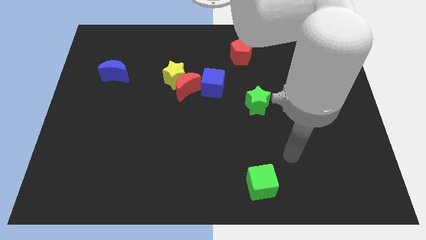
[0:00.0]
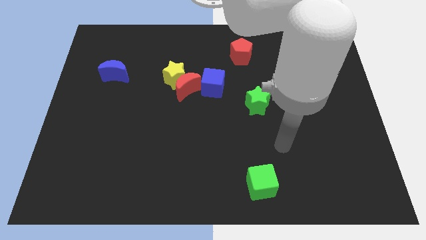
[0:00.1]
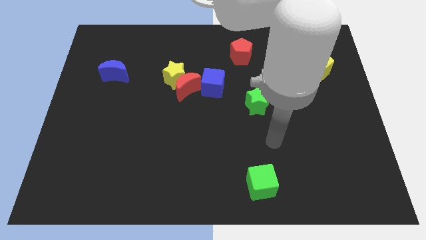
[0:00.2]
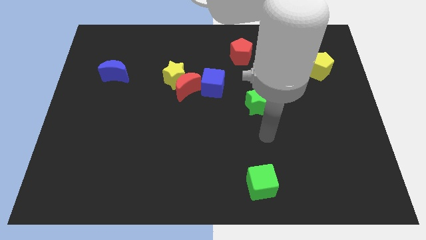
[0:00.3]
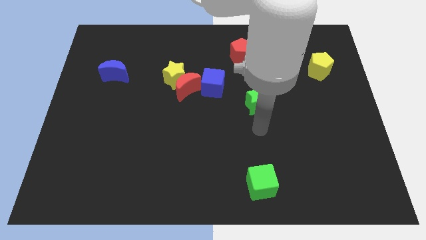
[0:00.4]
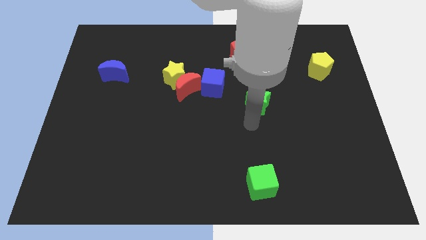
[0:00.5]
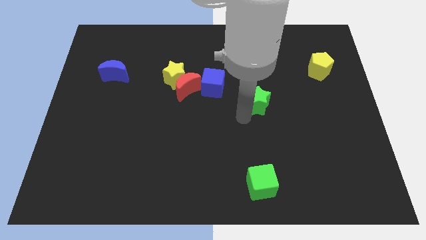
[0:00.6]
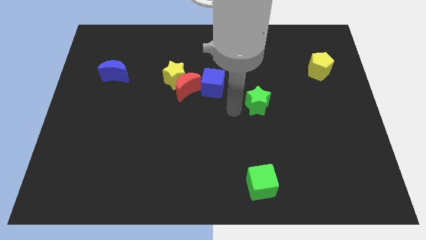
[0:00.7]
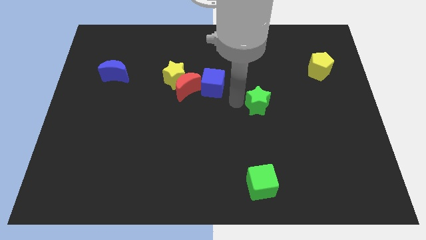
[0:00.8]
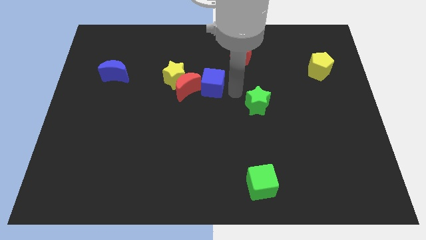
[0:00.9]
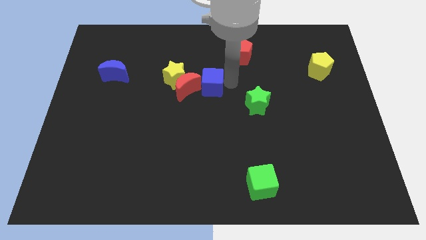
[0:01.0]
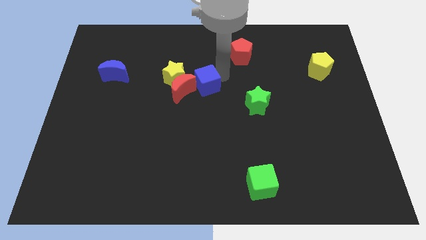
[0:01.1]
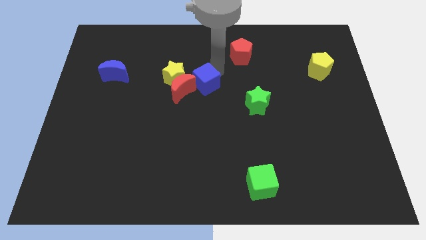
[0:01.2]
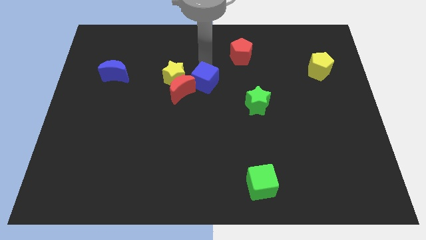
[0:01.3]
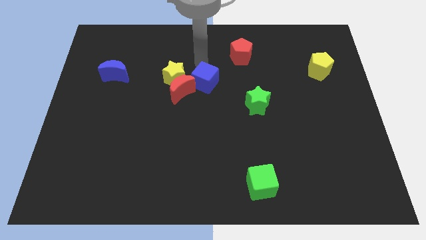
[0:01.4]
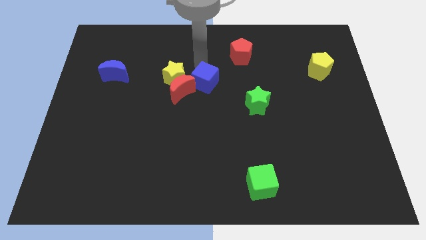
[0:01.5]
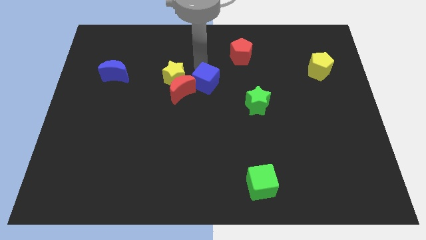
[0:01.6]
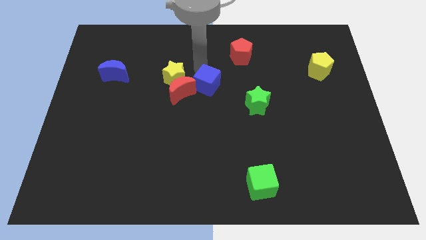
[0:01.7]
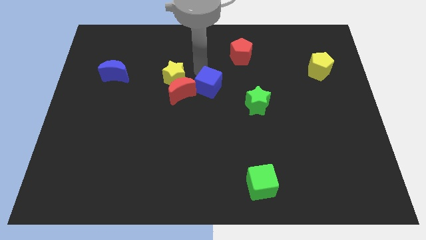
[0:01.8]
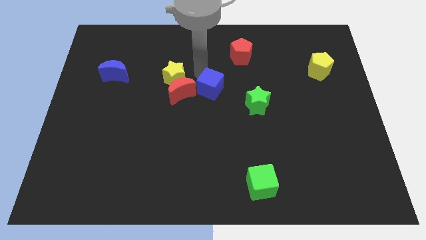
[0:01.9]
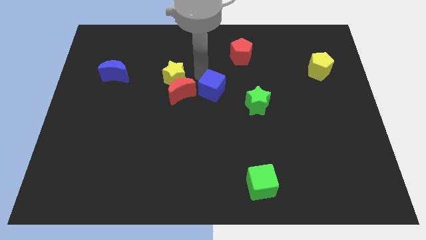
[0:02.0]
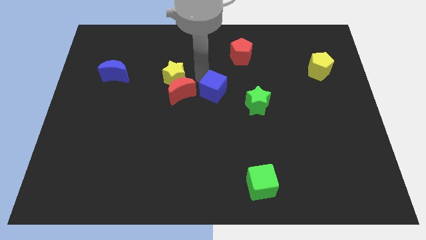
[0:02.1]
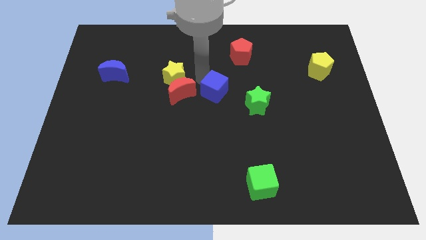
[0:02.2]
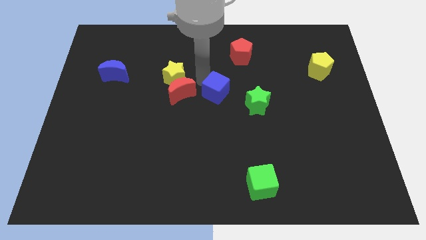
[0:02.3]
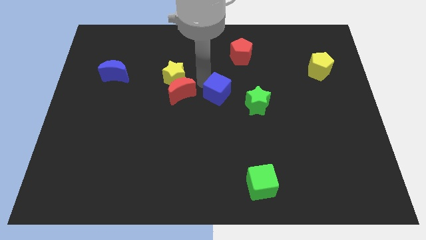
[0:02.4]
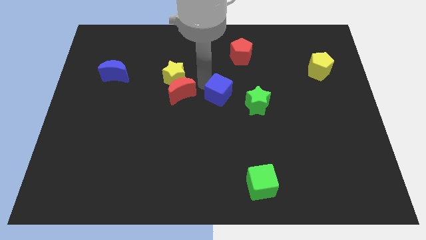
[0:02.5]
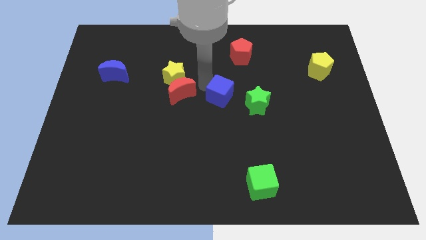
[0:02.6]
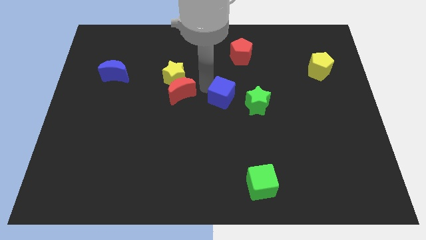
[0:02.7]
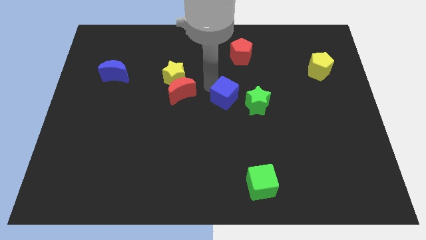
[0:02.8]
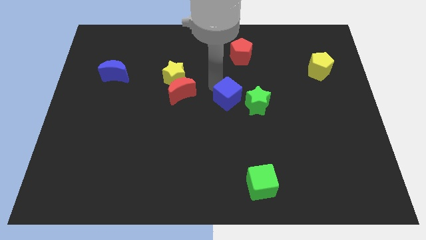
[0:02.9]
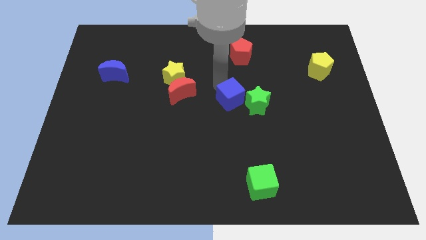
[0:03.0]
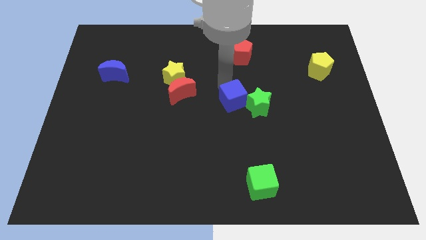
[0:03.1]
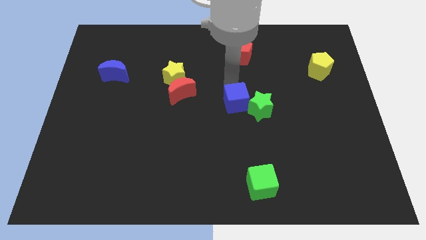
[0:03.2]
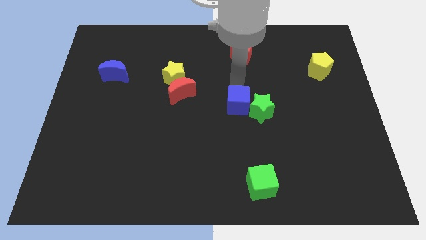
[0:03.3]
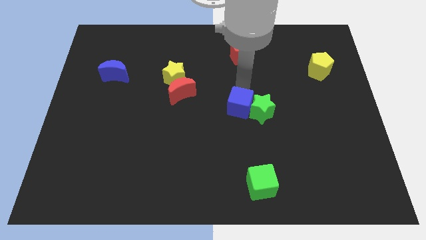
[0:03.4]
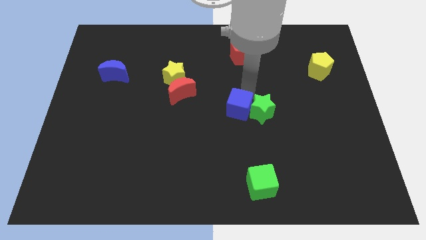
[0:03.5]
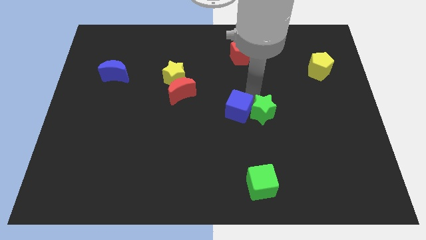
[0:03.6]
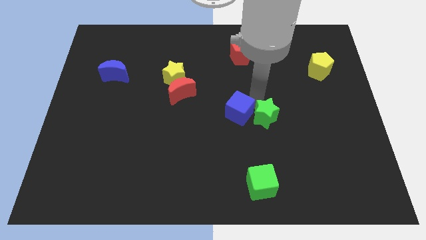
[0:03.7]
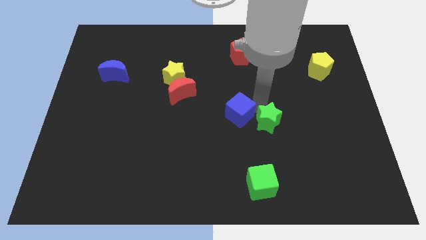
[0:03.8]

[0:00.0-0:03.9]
slightly move the blue cube downwards

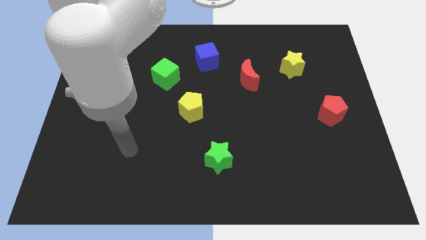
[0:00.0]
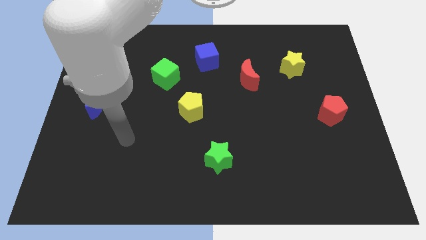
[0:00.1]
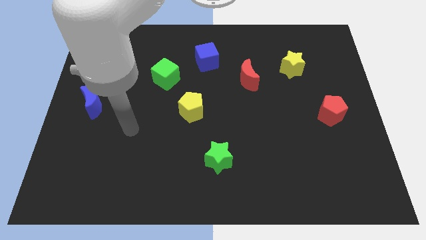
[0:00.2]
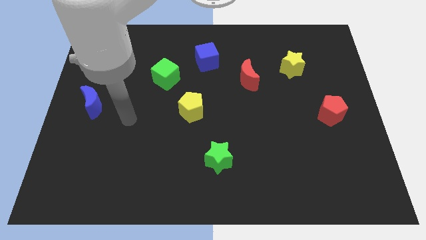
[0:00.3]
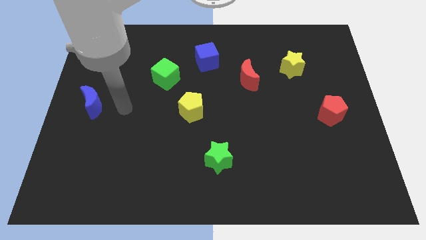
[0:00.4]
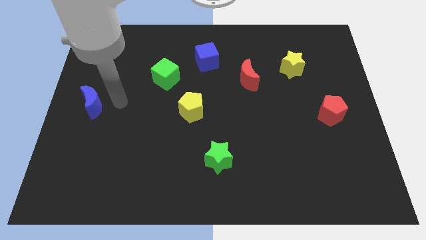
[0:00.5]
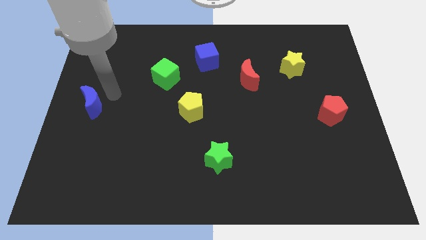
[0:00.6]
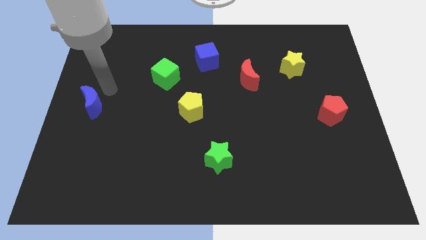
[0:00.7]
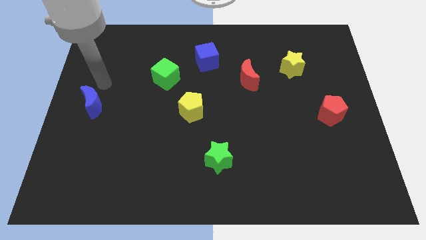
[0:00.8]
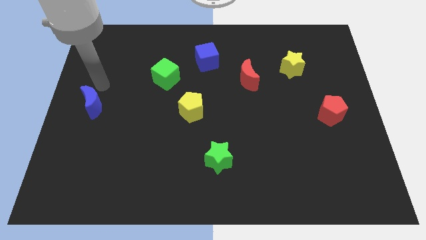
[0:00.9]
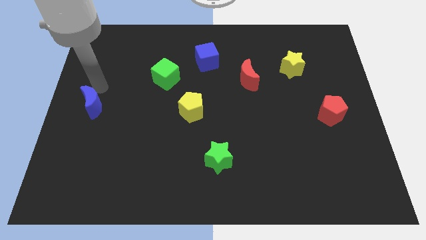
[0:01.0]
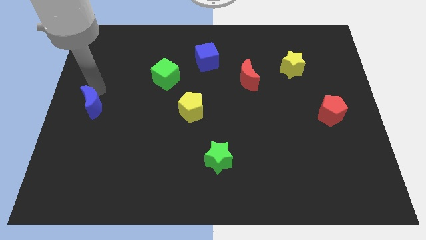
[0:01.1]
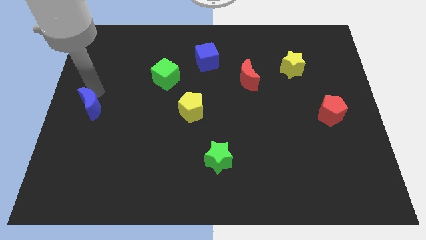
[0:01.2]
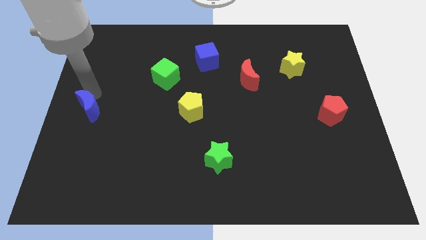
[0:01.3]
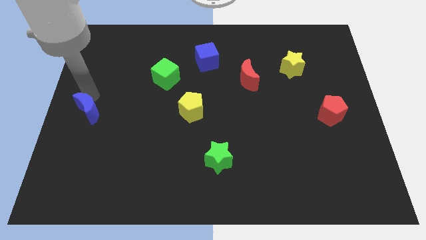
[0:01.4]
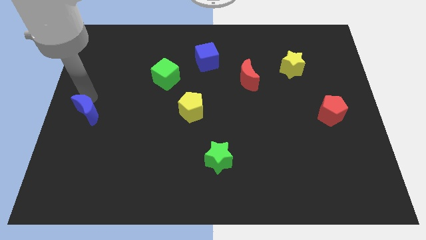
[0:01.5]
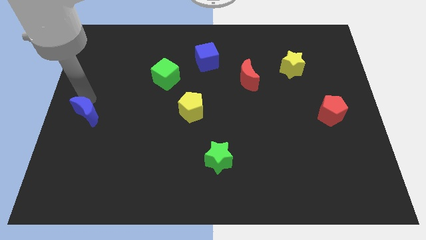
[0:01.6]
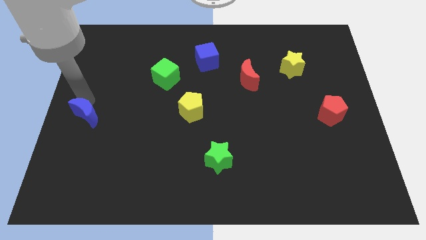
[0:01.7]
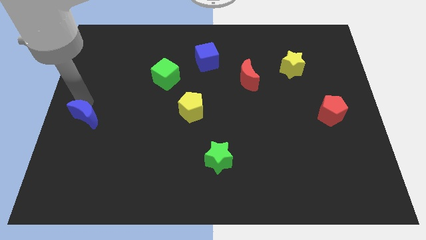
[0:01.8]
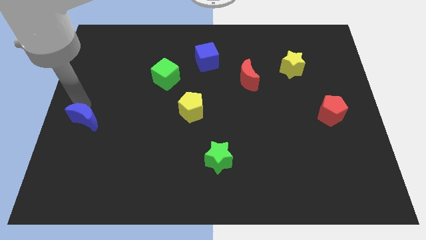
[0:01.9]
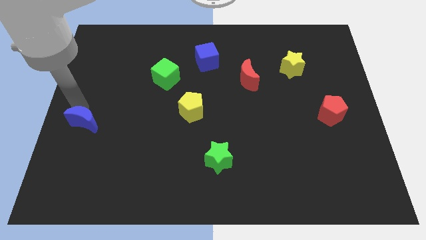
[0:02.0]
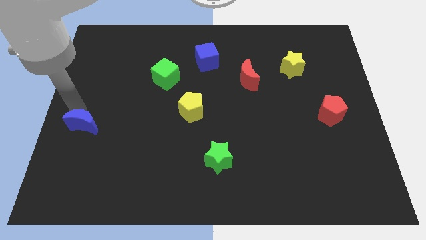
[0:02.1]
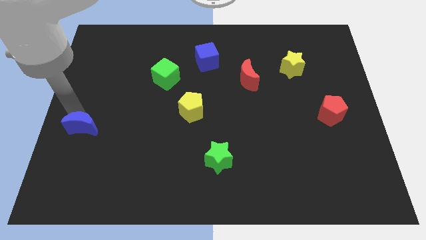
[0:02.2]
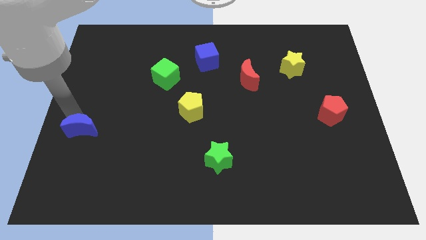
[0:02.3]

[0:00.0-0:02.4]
slightly move the blue moon down

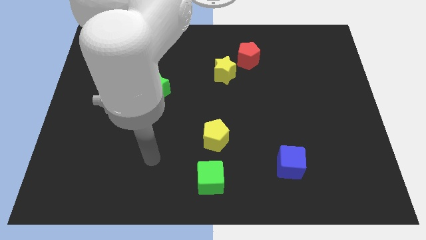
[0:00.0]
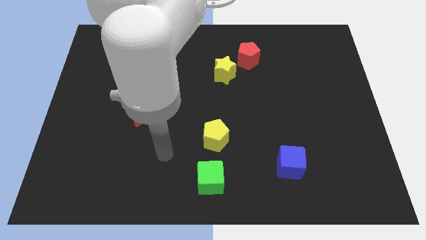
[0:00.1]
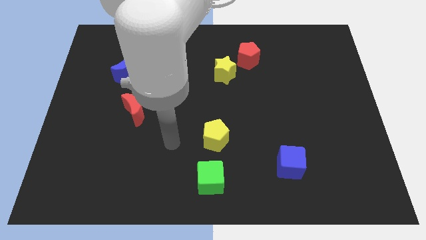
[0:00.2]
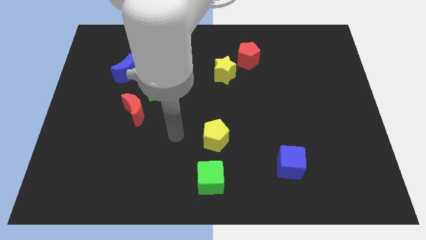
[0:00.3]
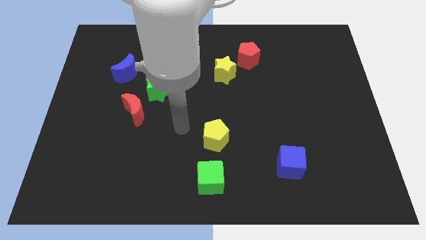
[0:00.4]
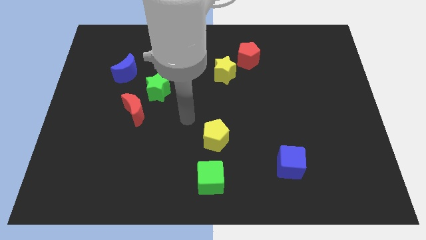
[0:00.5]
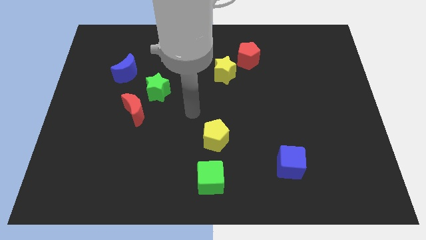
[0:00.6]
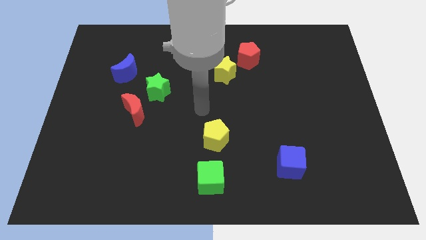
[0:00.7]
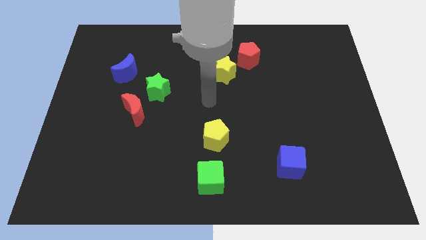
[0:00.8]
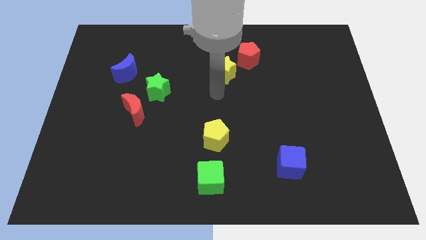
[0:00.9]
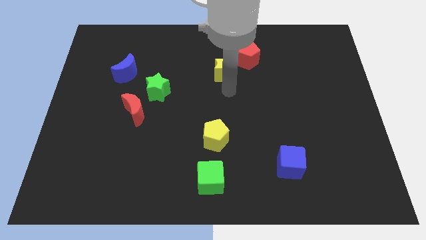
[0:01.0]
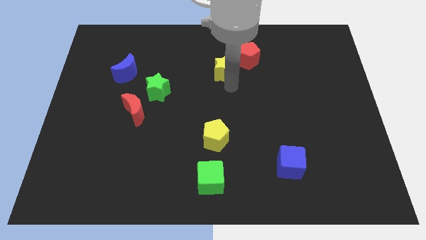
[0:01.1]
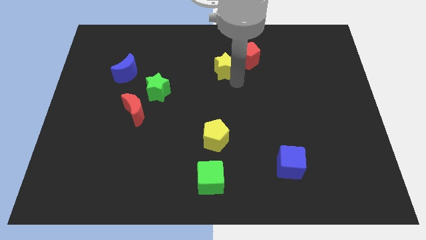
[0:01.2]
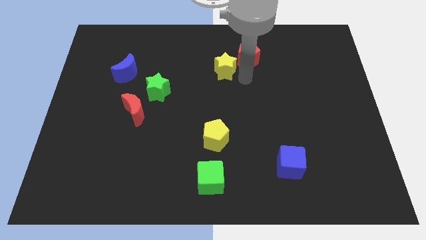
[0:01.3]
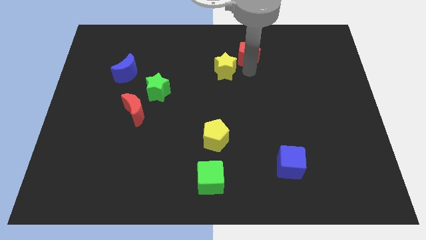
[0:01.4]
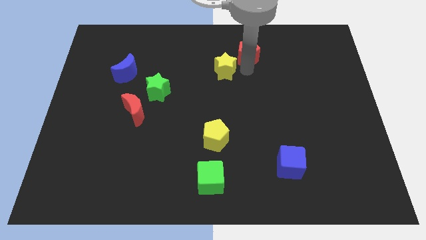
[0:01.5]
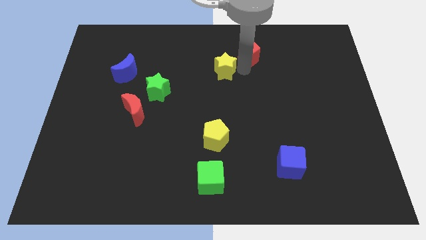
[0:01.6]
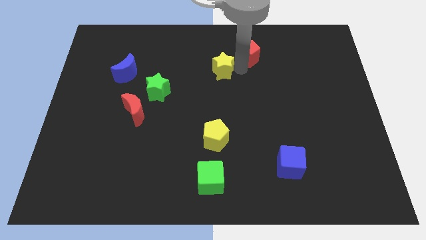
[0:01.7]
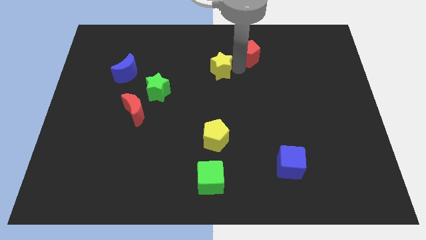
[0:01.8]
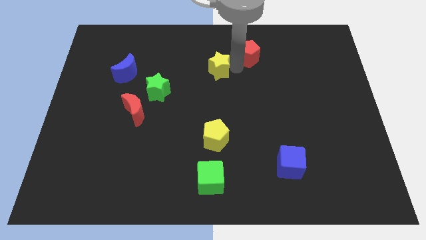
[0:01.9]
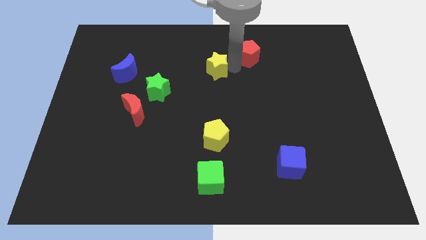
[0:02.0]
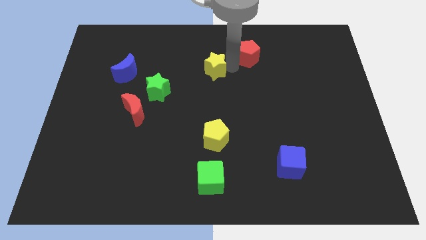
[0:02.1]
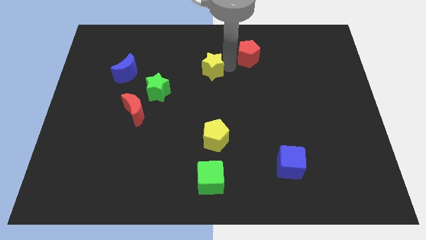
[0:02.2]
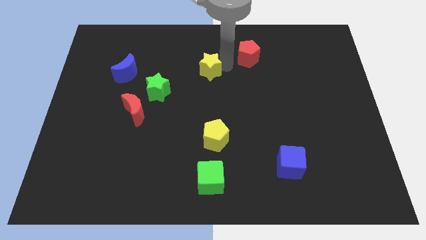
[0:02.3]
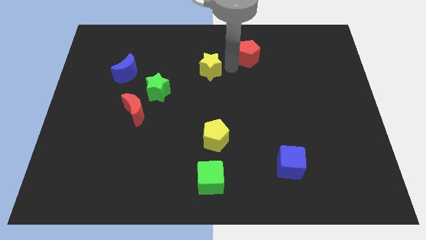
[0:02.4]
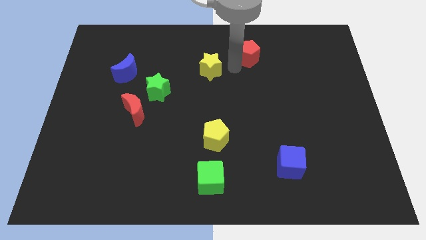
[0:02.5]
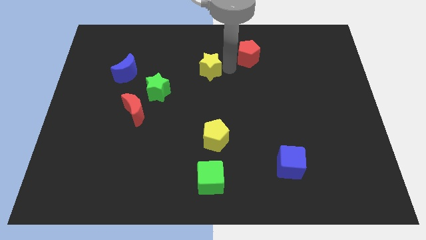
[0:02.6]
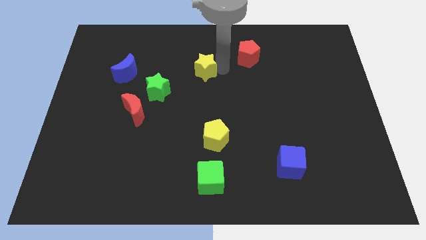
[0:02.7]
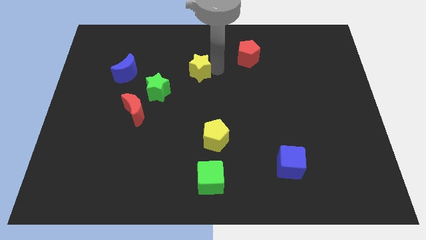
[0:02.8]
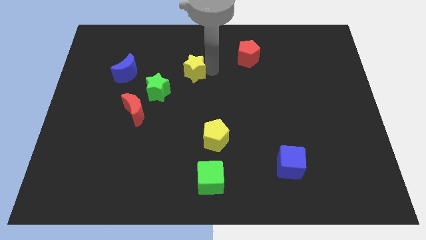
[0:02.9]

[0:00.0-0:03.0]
push the yellow star left slightly
